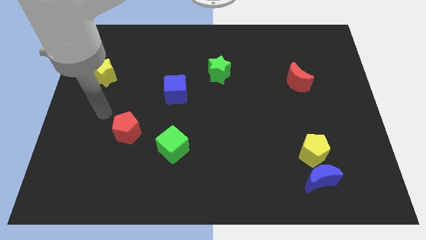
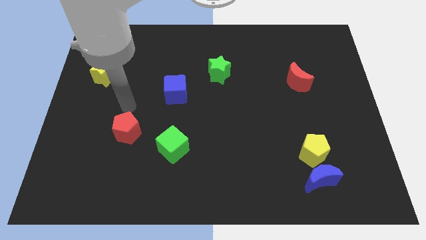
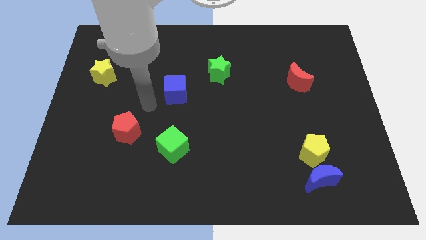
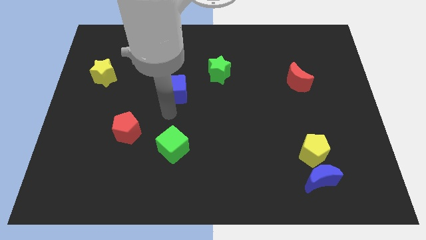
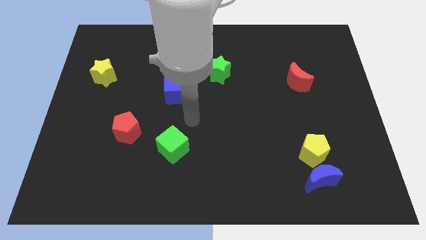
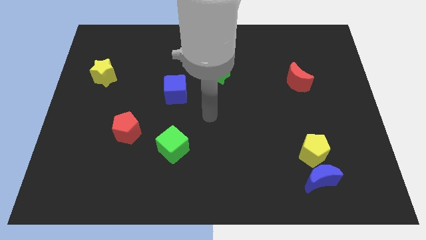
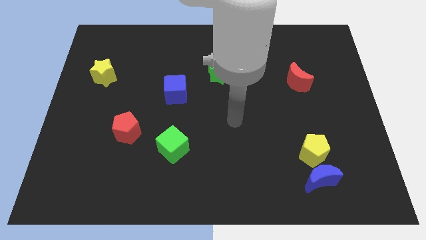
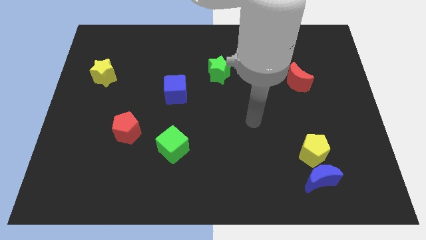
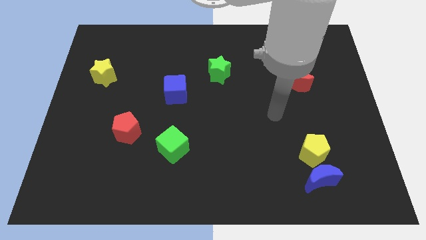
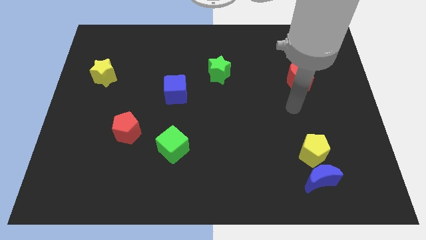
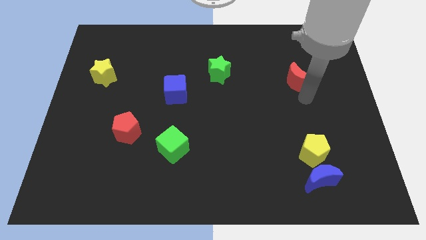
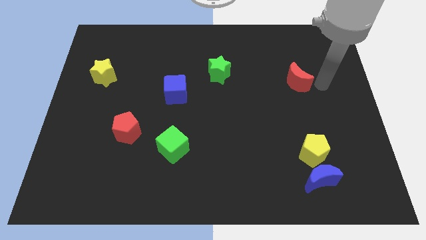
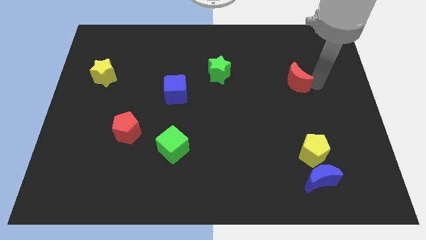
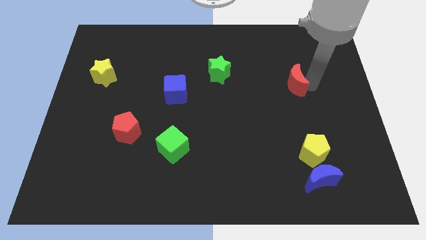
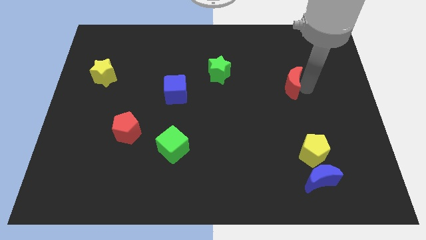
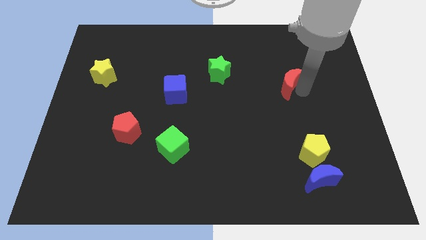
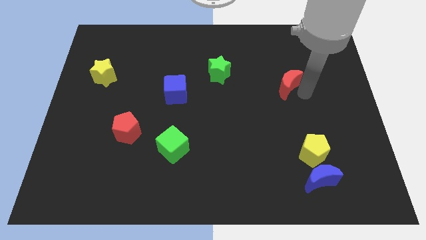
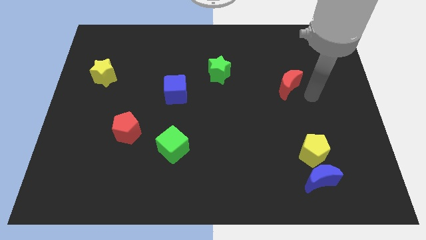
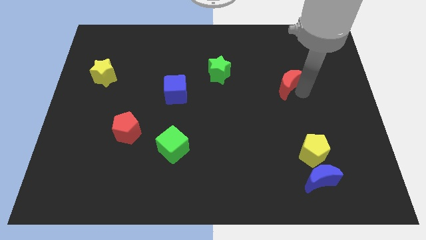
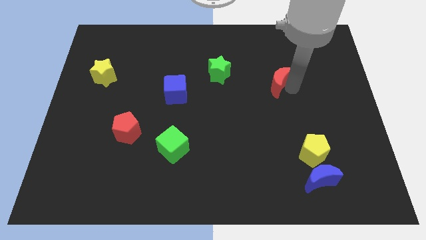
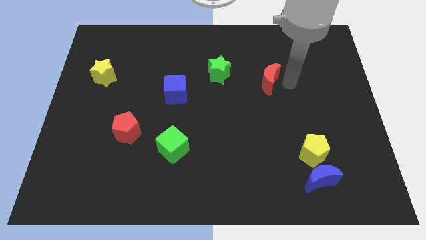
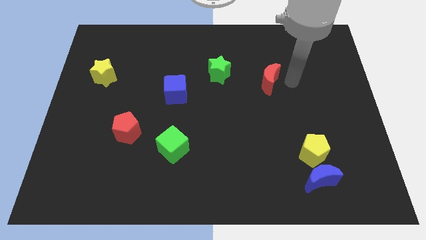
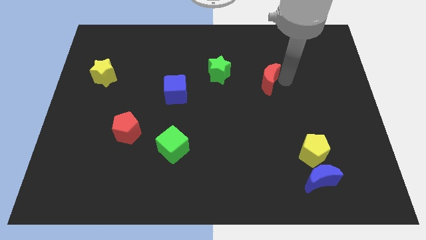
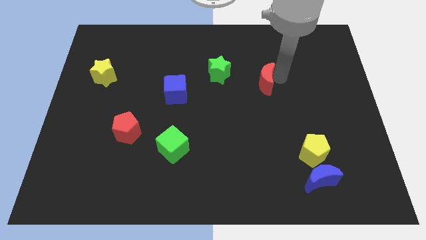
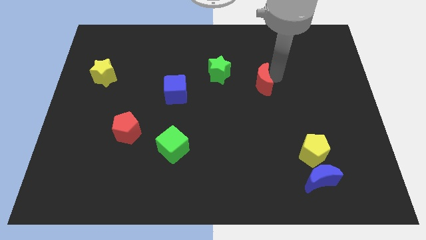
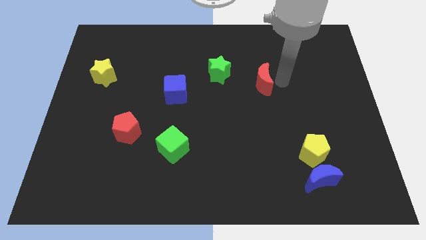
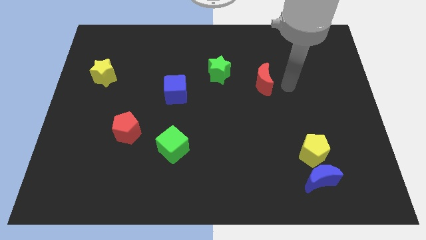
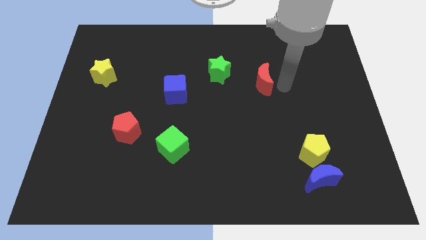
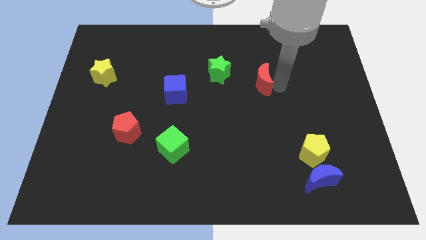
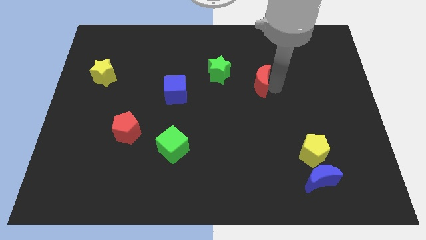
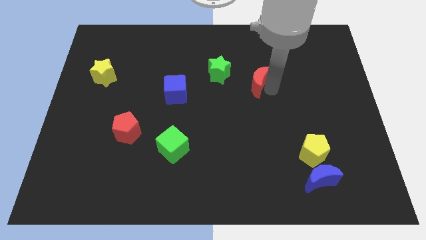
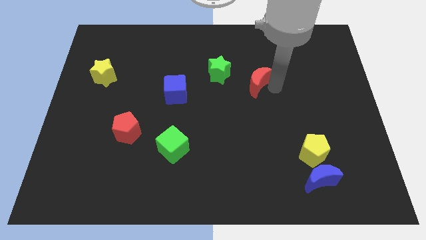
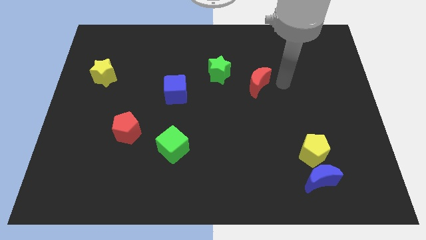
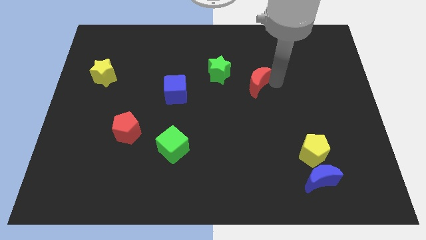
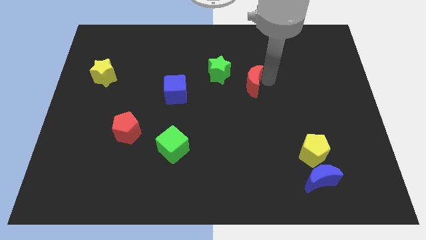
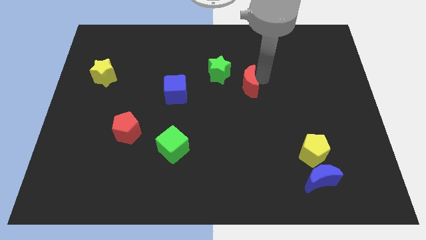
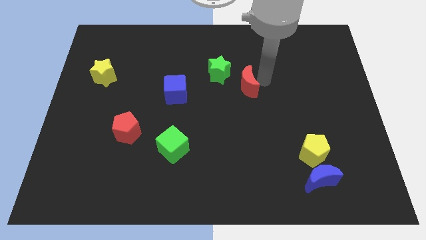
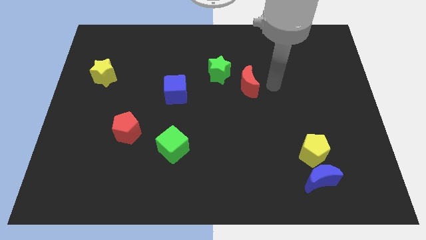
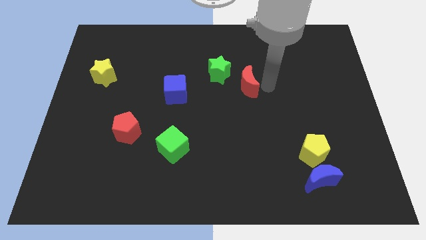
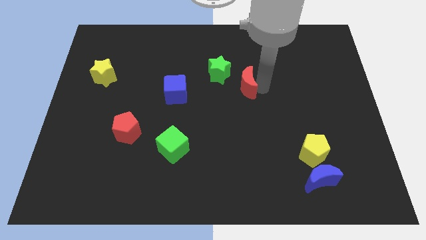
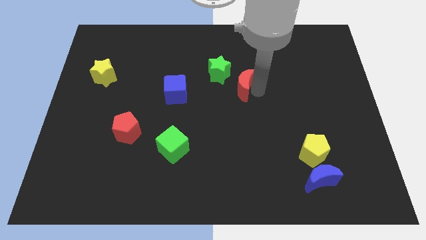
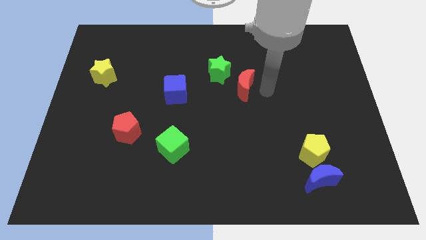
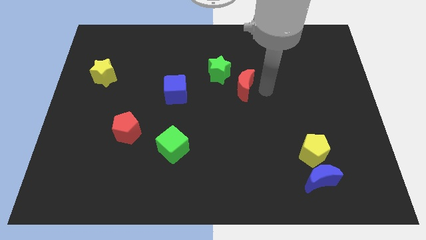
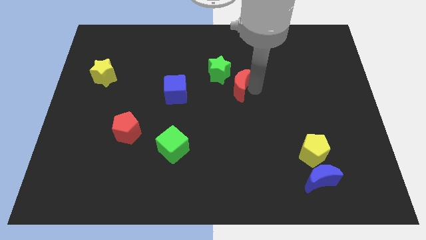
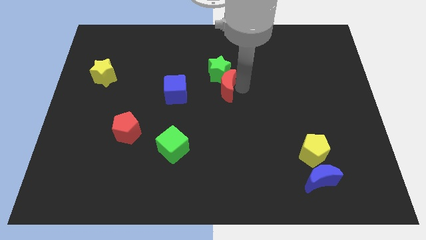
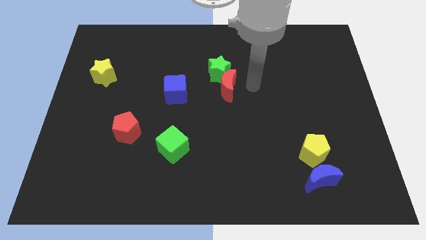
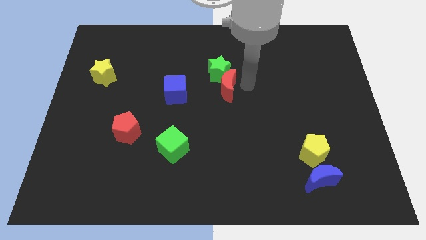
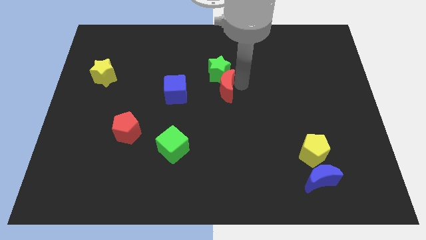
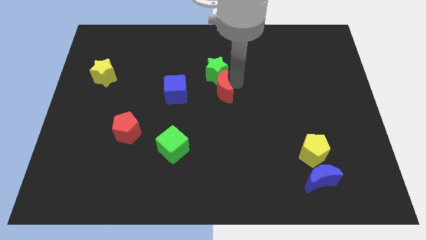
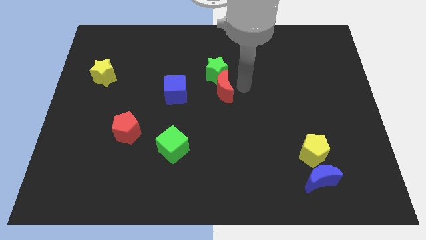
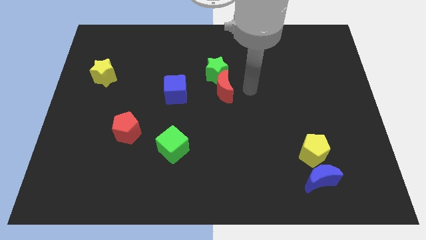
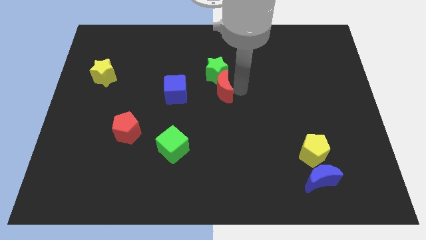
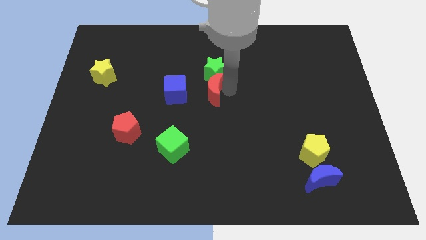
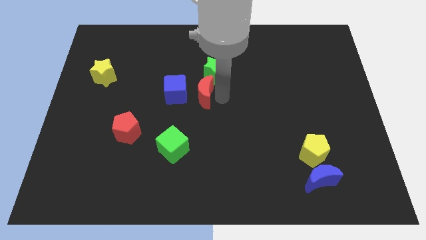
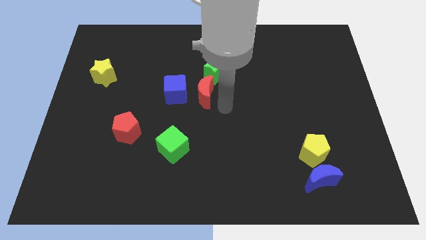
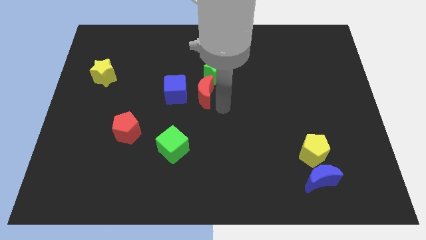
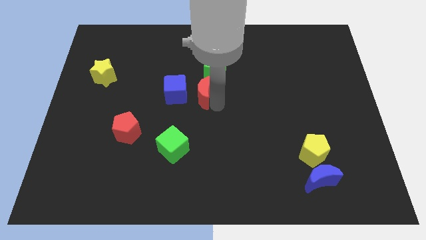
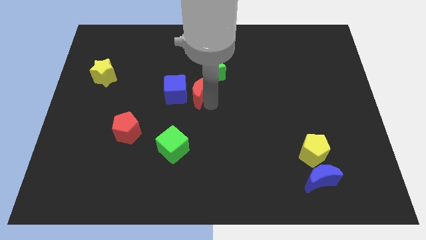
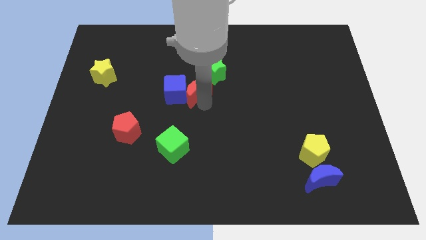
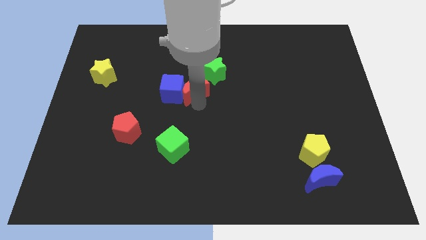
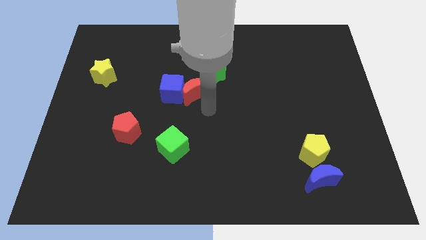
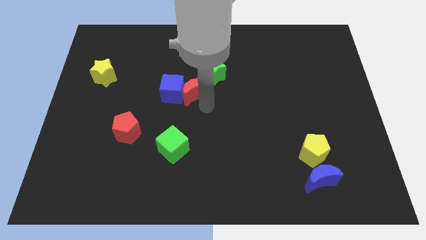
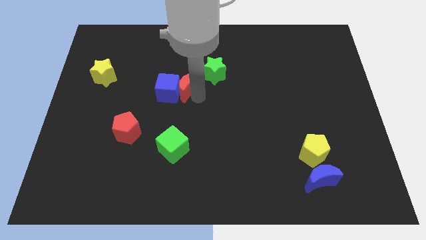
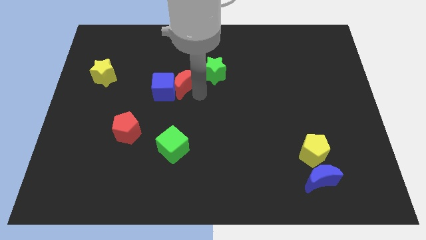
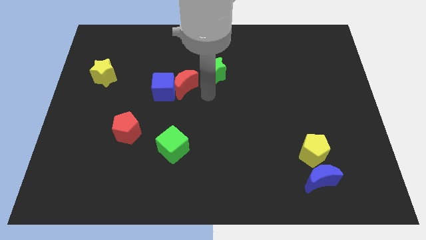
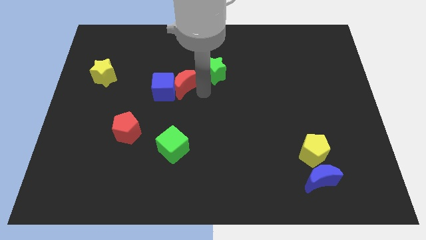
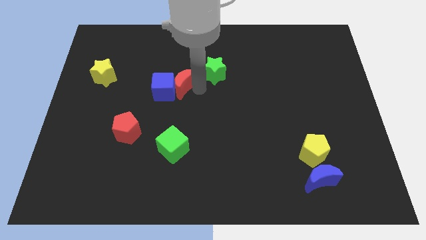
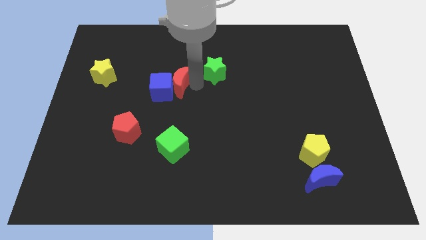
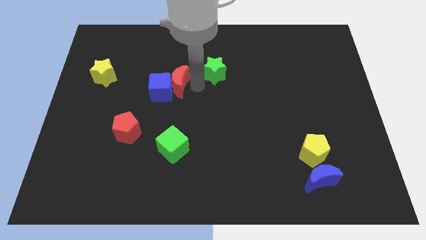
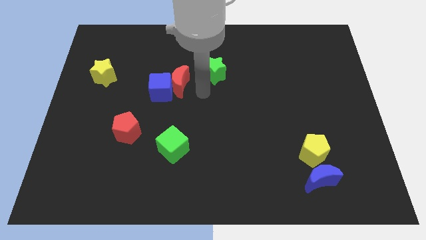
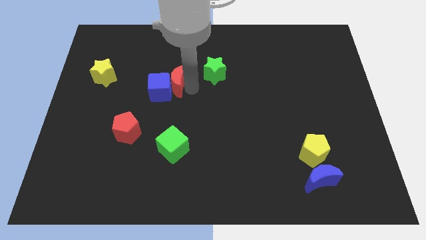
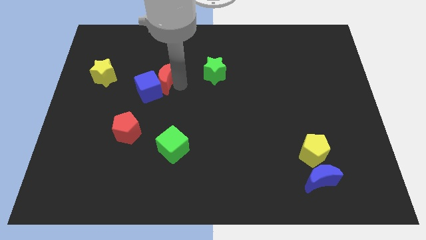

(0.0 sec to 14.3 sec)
push the red moon just right of the yellow star
